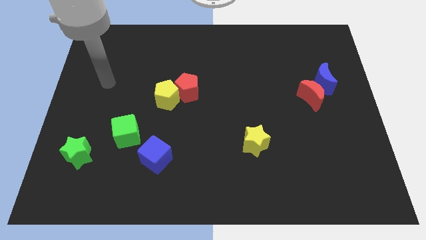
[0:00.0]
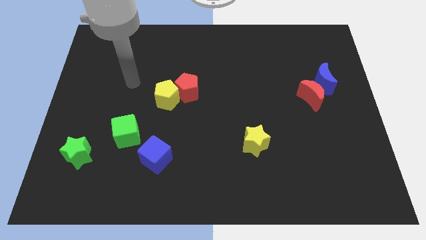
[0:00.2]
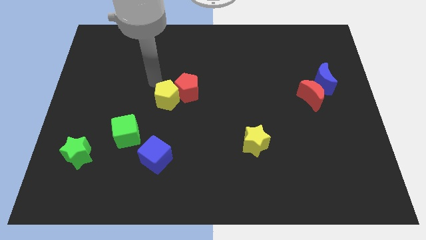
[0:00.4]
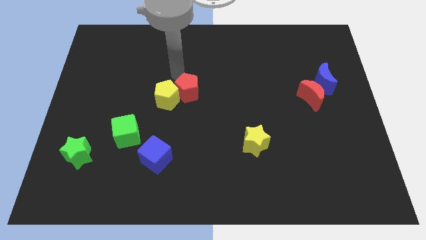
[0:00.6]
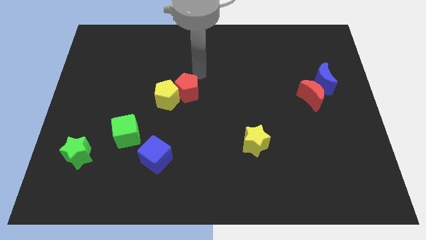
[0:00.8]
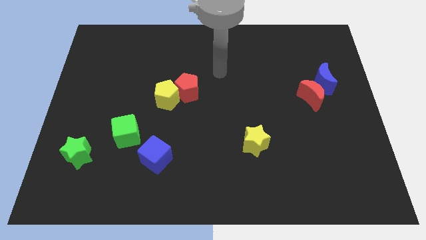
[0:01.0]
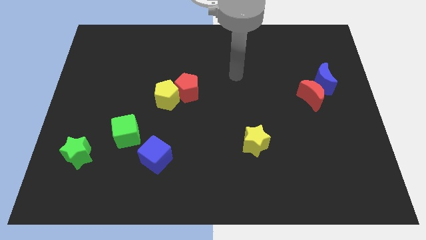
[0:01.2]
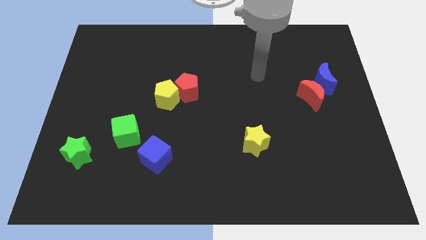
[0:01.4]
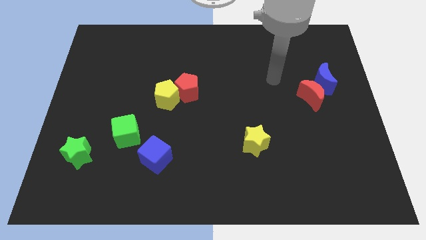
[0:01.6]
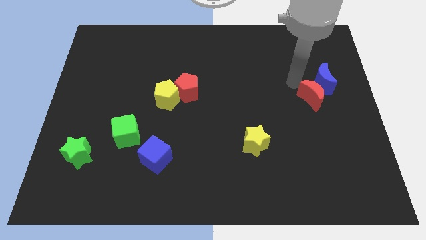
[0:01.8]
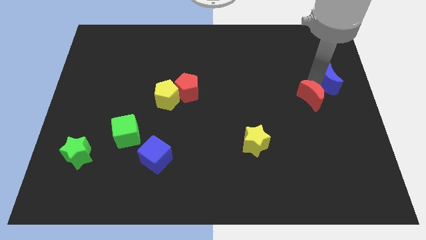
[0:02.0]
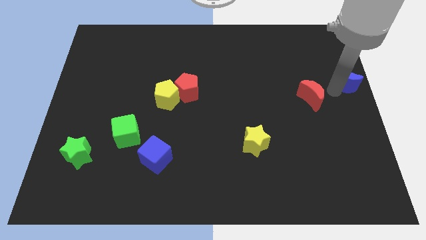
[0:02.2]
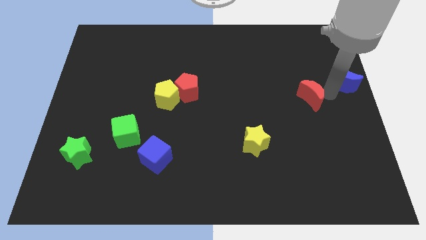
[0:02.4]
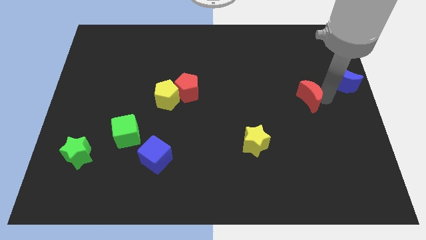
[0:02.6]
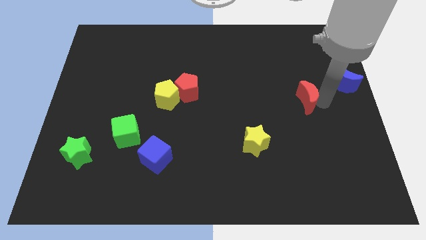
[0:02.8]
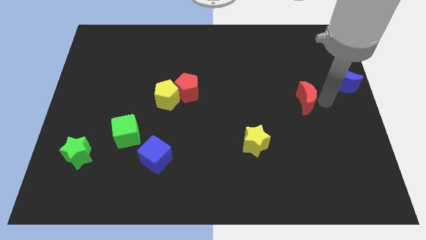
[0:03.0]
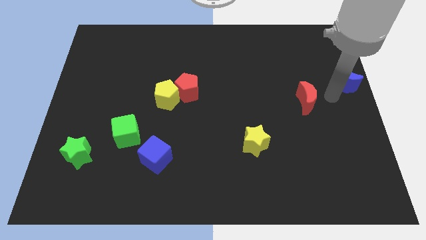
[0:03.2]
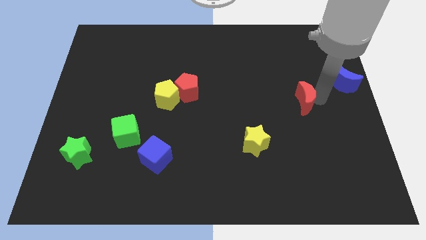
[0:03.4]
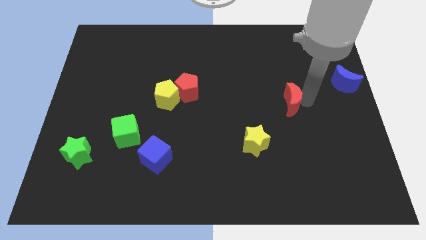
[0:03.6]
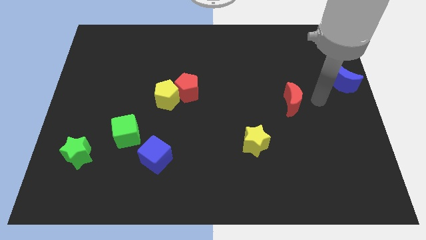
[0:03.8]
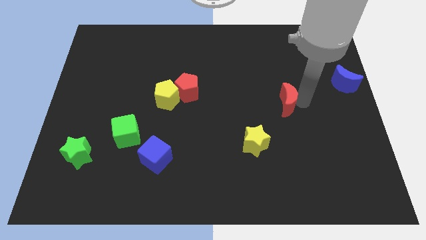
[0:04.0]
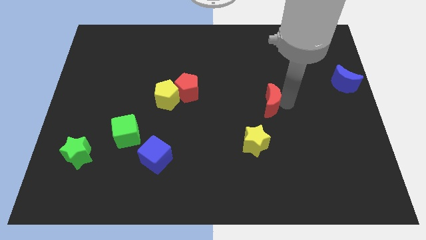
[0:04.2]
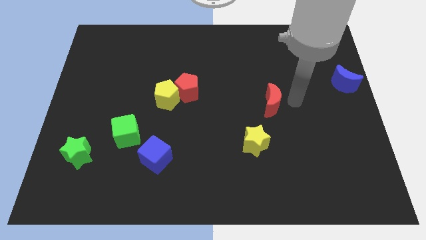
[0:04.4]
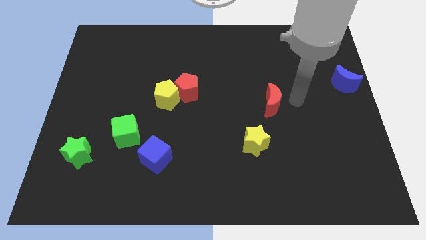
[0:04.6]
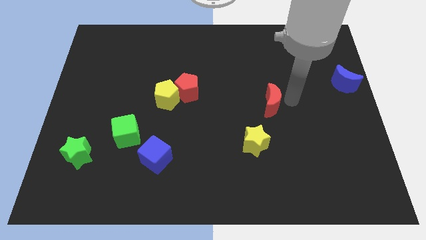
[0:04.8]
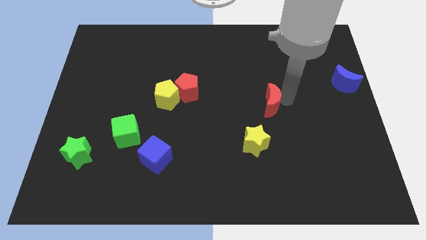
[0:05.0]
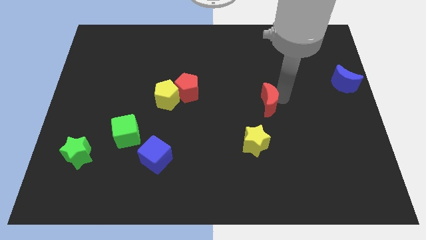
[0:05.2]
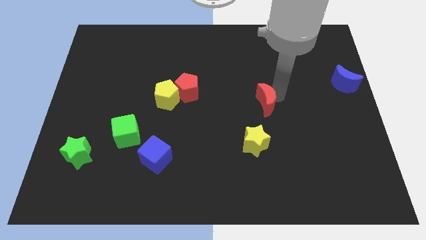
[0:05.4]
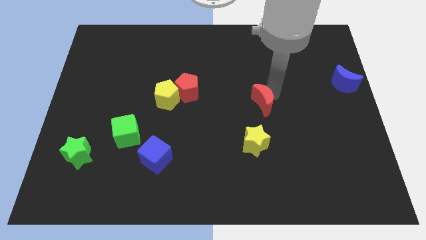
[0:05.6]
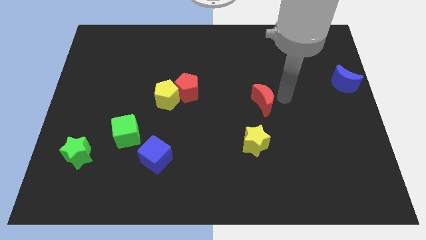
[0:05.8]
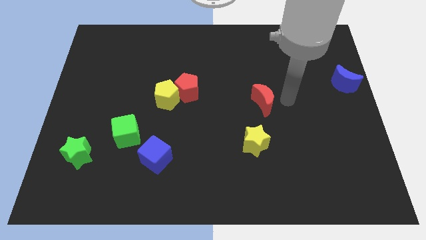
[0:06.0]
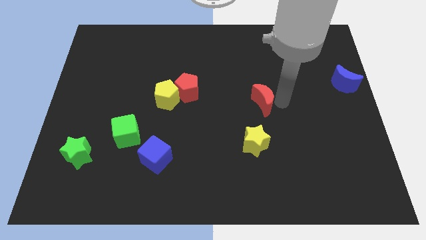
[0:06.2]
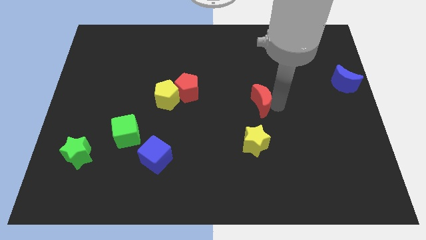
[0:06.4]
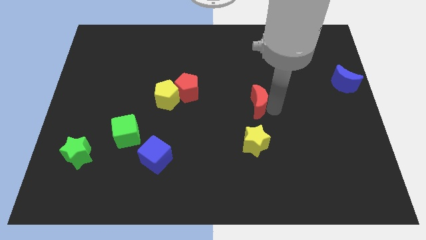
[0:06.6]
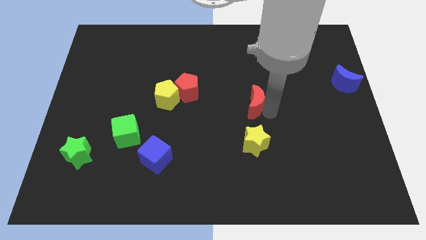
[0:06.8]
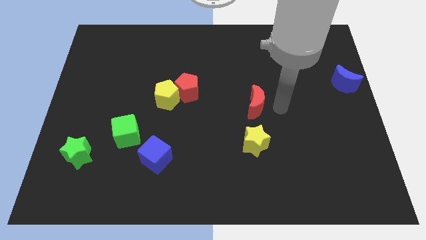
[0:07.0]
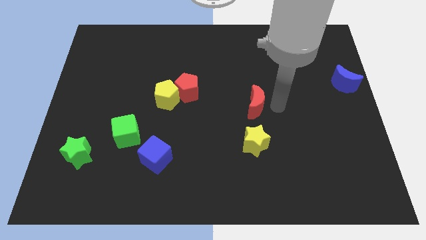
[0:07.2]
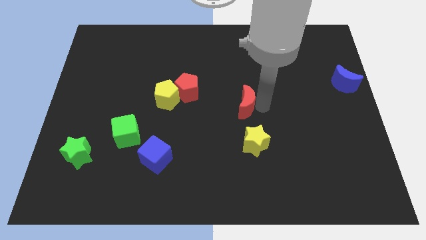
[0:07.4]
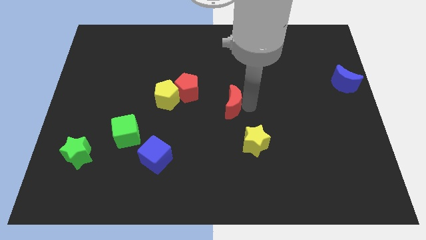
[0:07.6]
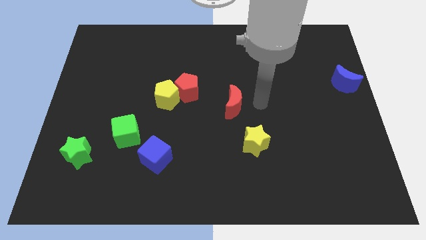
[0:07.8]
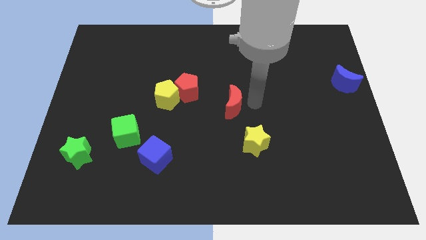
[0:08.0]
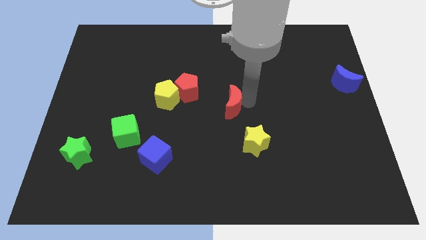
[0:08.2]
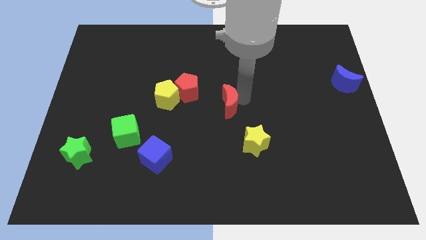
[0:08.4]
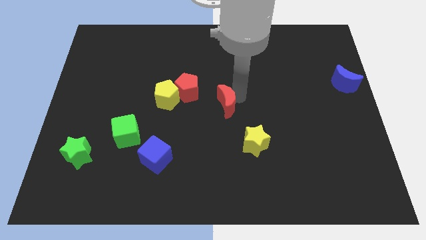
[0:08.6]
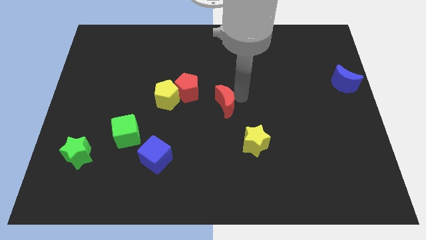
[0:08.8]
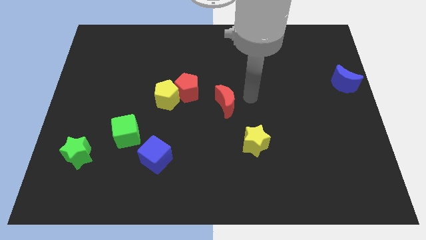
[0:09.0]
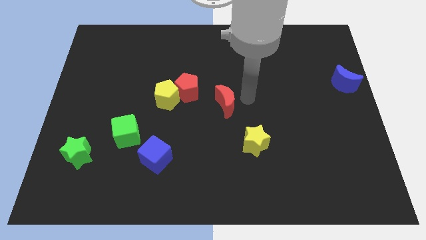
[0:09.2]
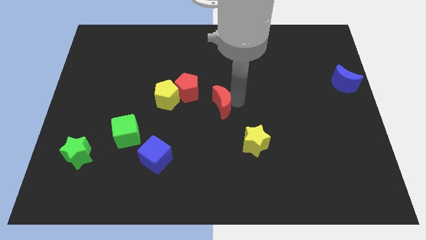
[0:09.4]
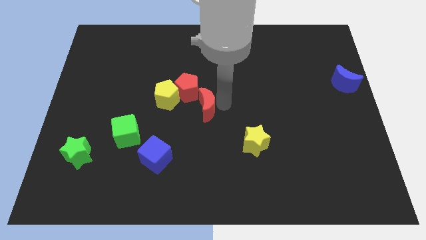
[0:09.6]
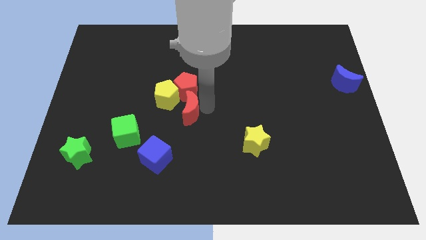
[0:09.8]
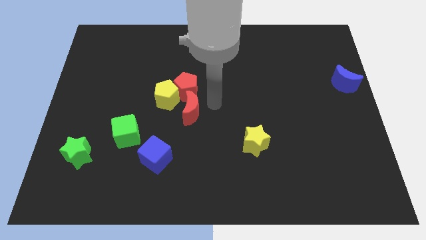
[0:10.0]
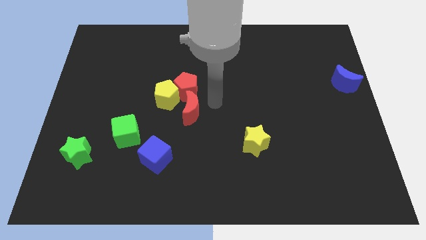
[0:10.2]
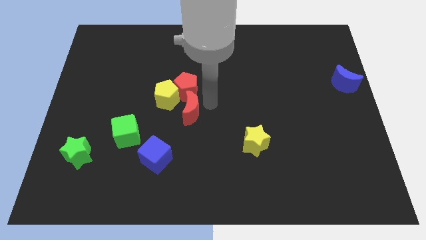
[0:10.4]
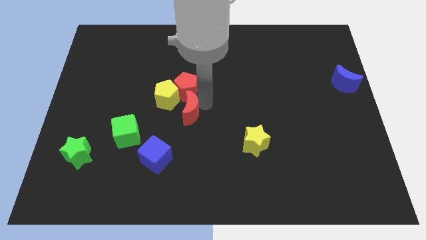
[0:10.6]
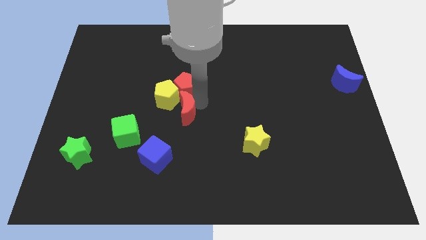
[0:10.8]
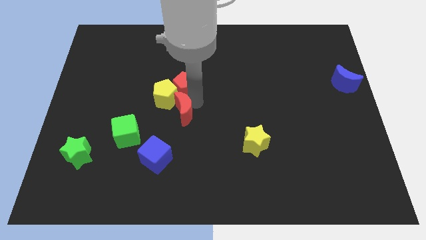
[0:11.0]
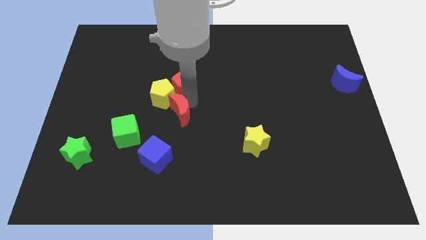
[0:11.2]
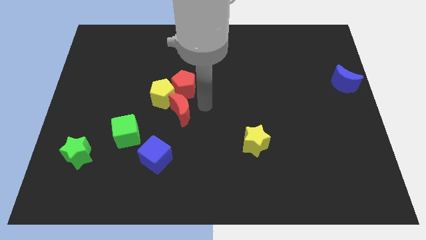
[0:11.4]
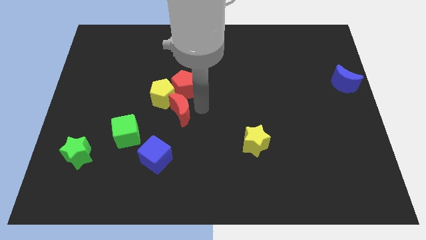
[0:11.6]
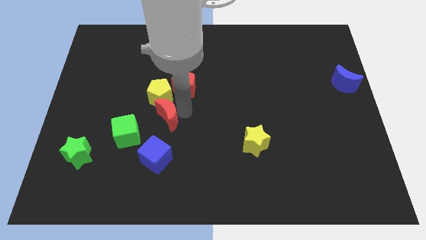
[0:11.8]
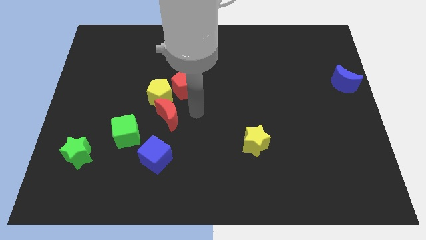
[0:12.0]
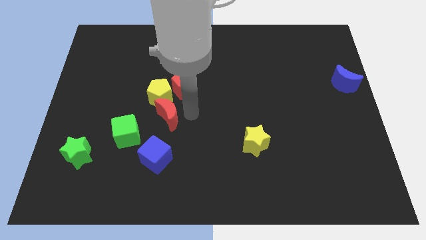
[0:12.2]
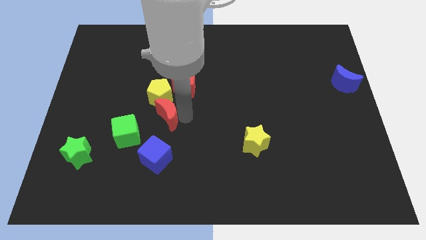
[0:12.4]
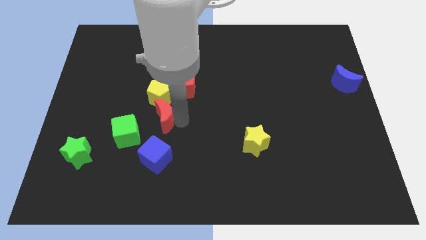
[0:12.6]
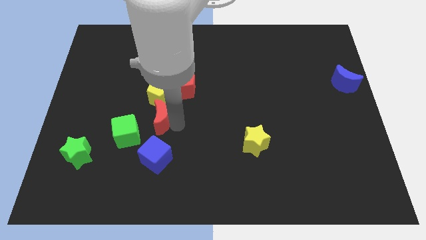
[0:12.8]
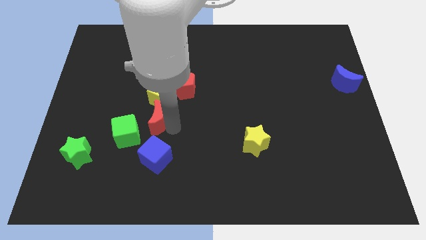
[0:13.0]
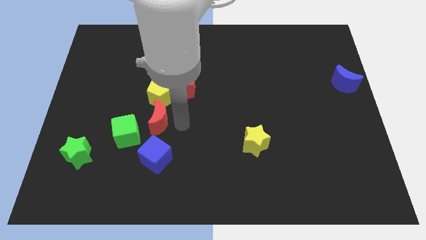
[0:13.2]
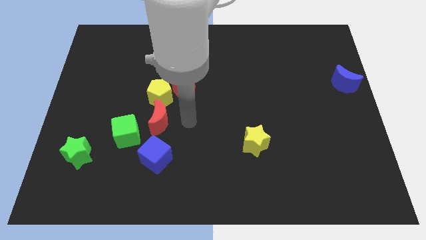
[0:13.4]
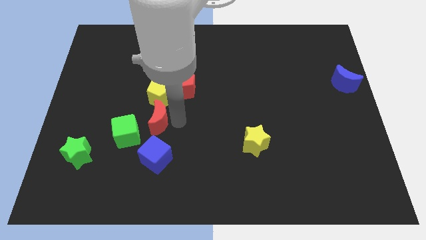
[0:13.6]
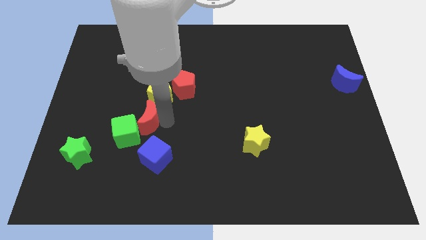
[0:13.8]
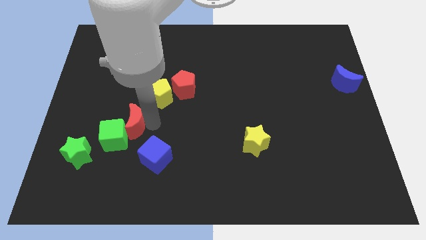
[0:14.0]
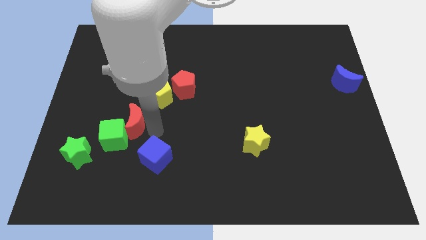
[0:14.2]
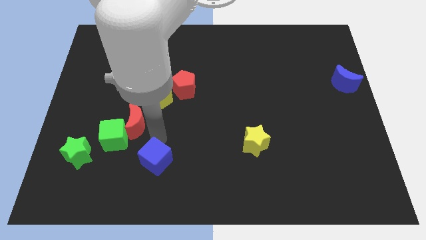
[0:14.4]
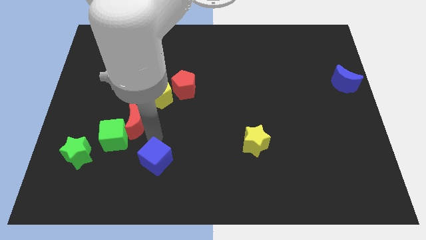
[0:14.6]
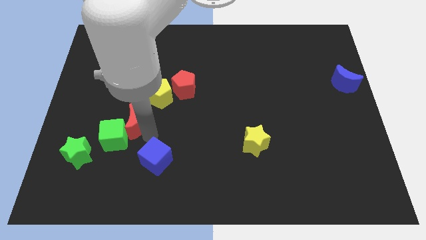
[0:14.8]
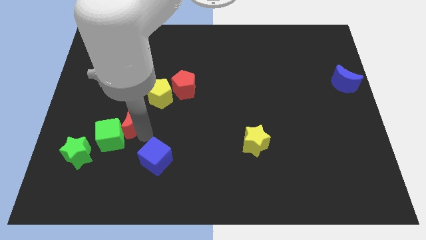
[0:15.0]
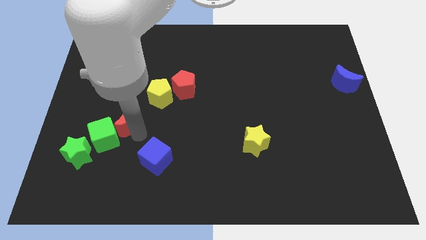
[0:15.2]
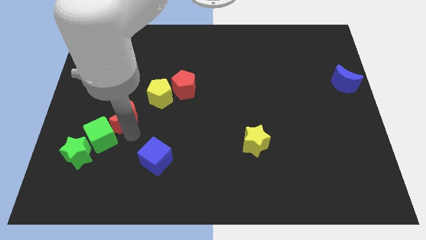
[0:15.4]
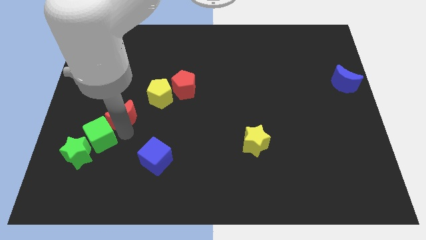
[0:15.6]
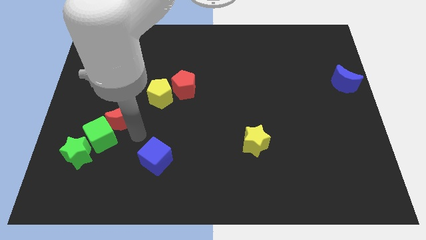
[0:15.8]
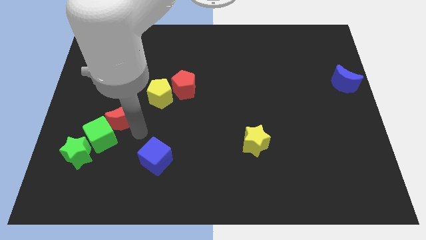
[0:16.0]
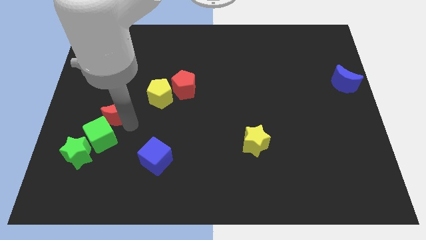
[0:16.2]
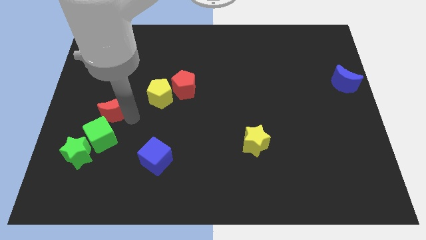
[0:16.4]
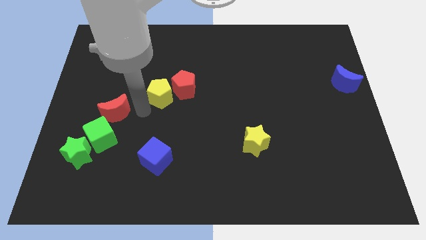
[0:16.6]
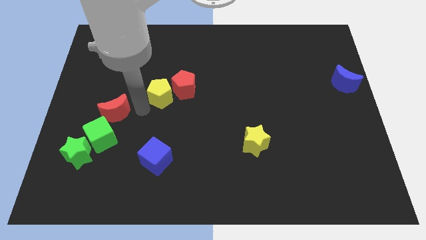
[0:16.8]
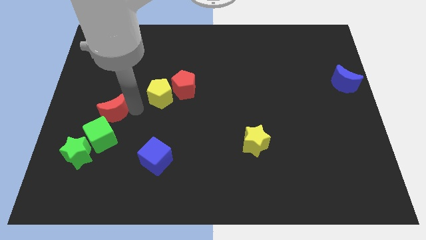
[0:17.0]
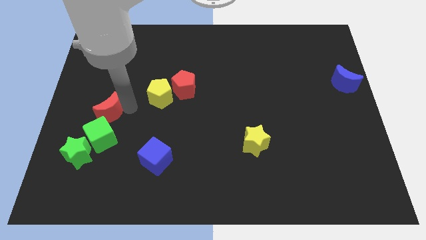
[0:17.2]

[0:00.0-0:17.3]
push the red moon to the top side of the green star
